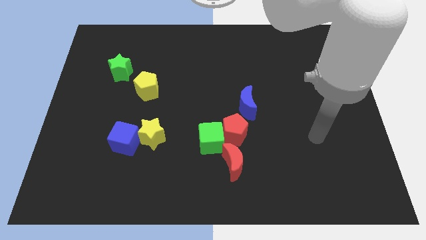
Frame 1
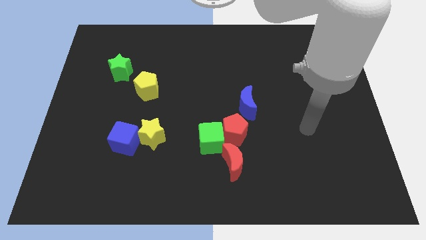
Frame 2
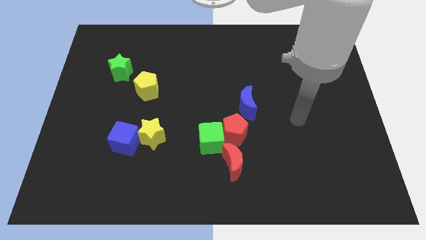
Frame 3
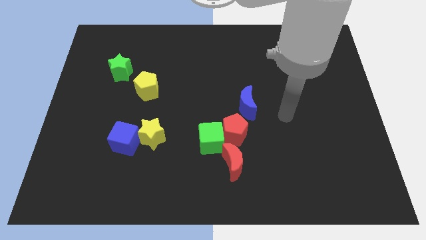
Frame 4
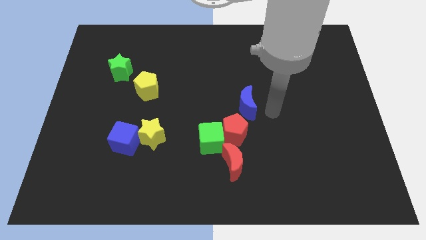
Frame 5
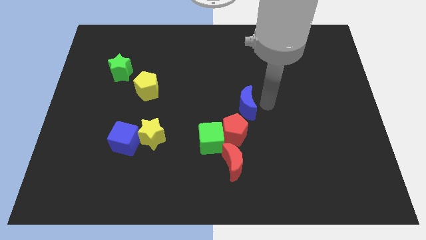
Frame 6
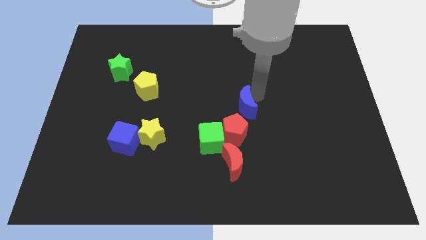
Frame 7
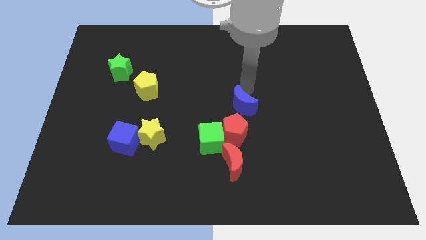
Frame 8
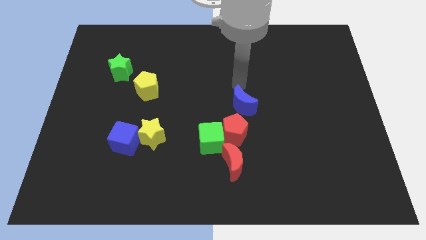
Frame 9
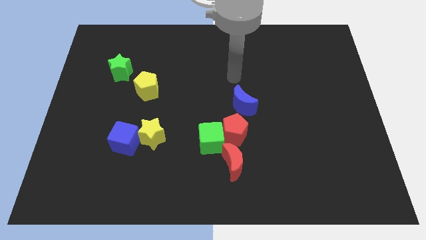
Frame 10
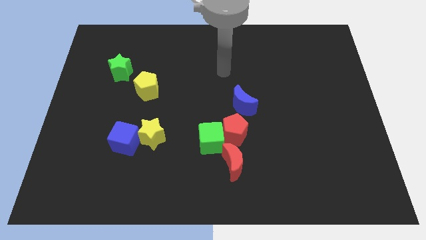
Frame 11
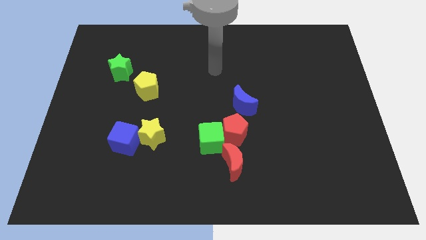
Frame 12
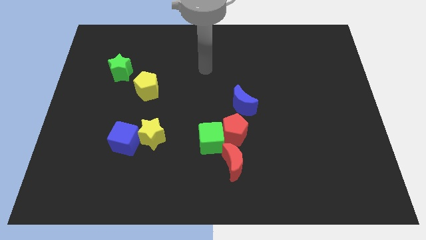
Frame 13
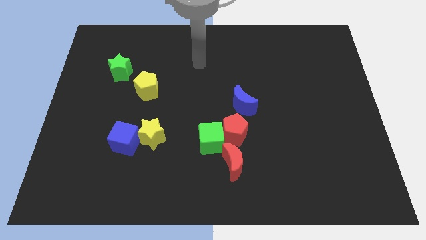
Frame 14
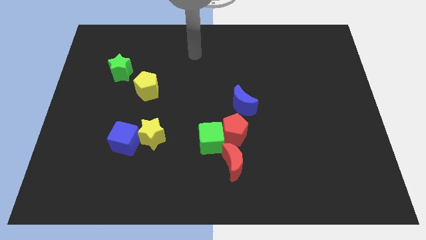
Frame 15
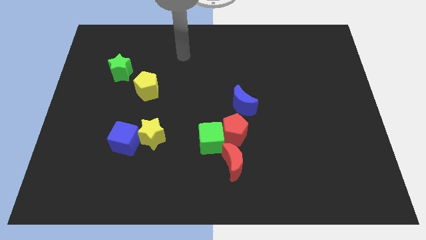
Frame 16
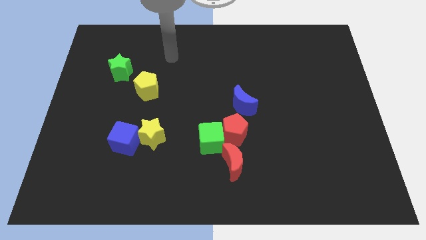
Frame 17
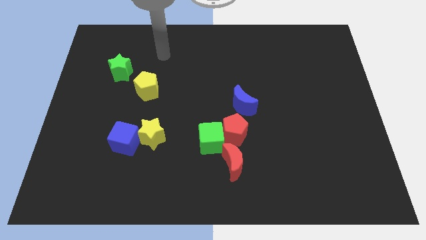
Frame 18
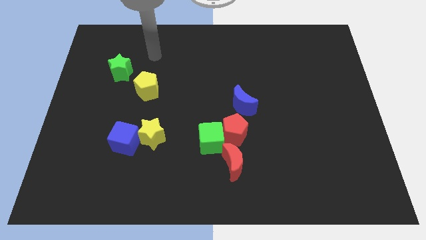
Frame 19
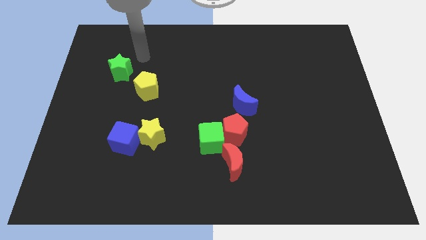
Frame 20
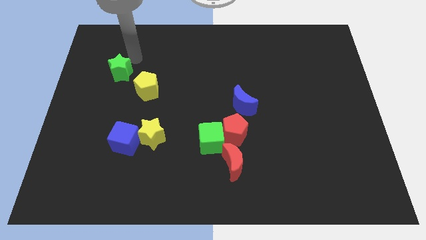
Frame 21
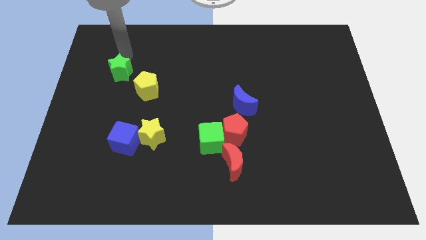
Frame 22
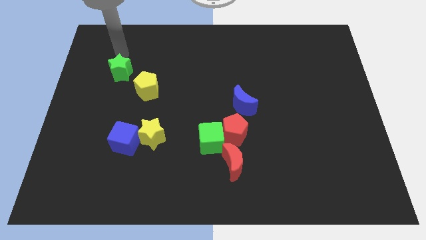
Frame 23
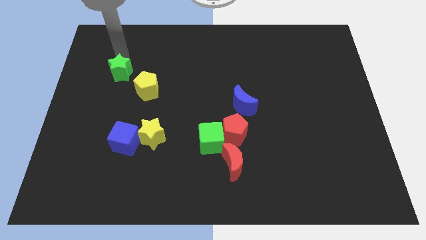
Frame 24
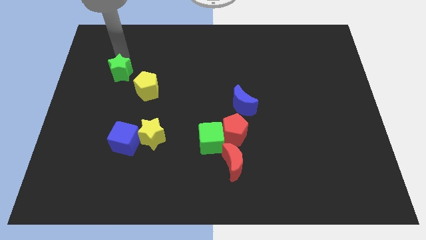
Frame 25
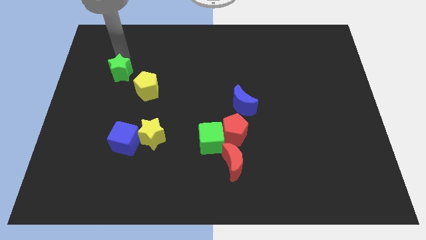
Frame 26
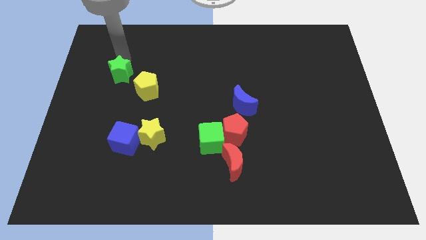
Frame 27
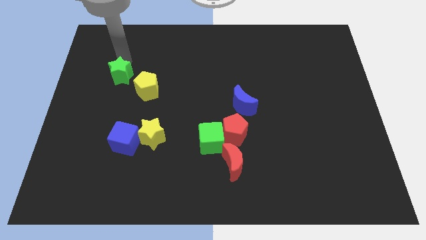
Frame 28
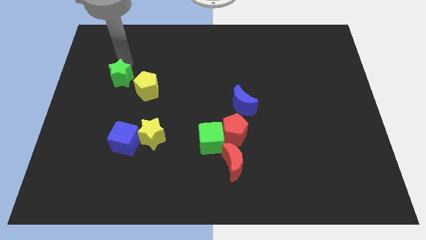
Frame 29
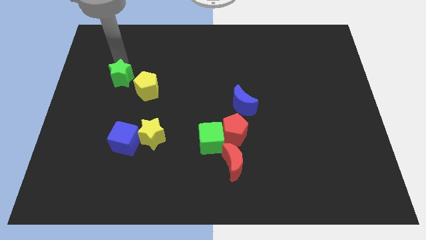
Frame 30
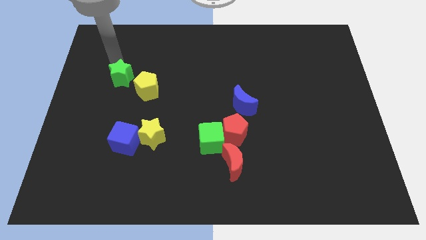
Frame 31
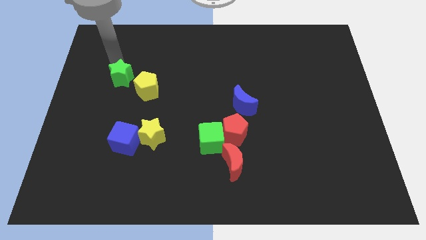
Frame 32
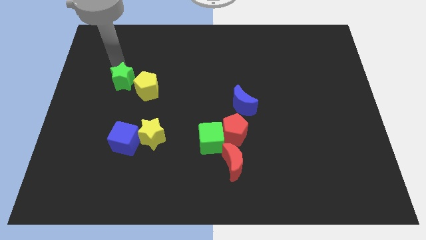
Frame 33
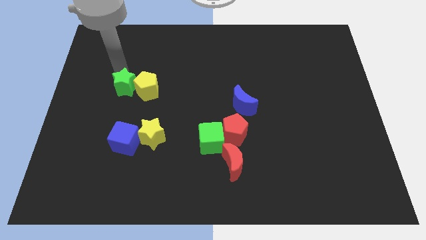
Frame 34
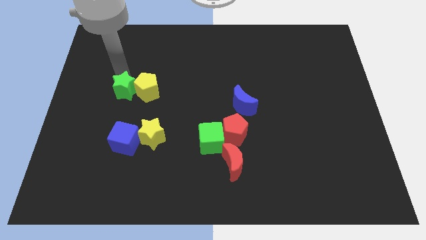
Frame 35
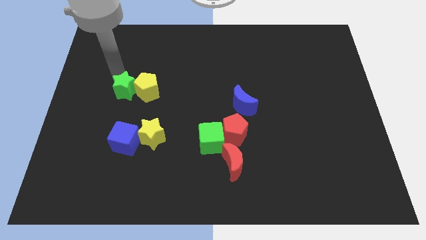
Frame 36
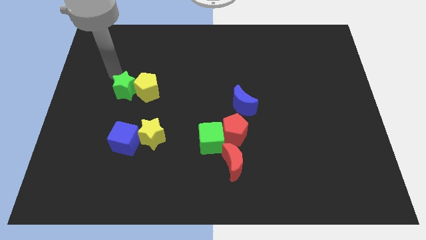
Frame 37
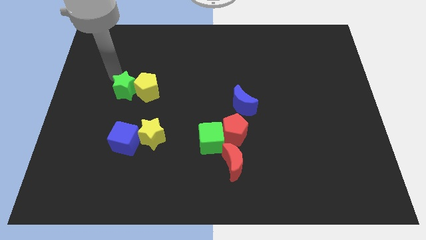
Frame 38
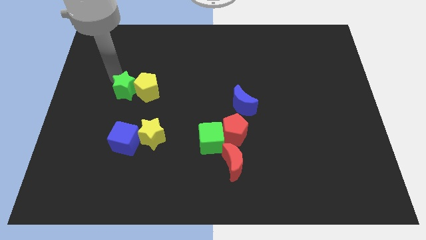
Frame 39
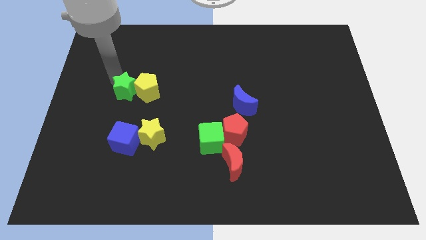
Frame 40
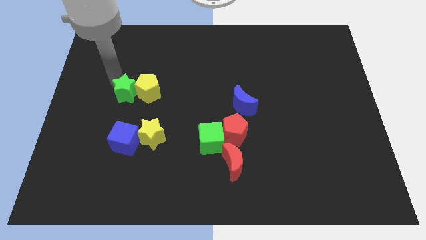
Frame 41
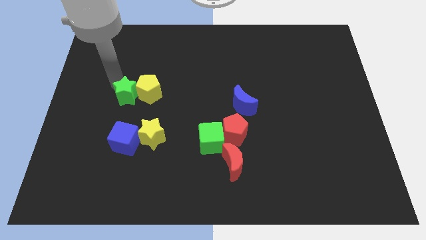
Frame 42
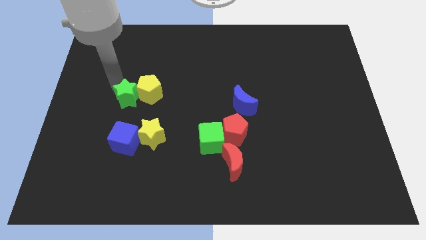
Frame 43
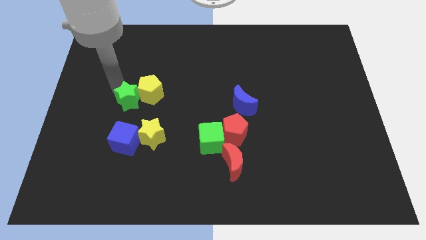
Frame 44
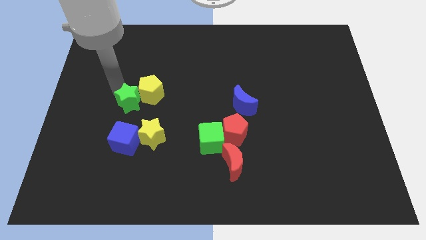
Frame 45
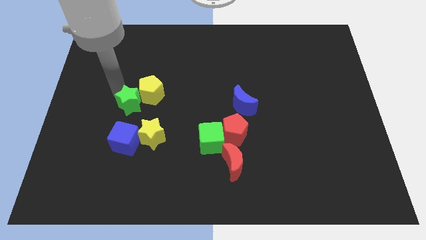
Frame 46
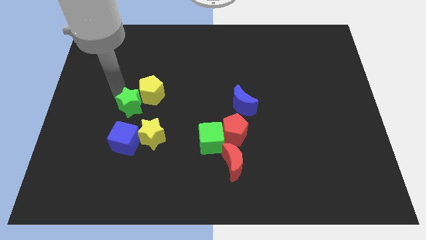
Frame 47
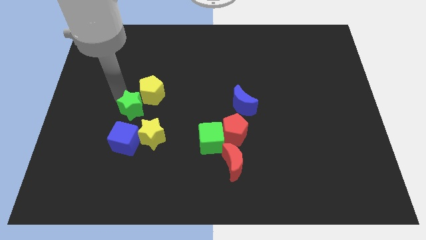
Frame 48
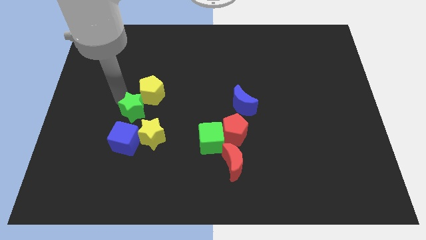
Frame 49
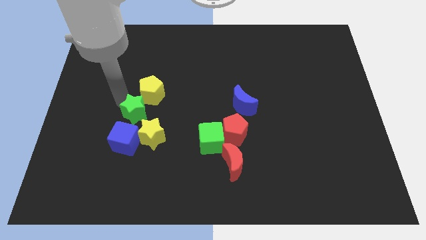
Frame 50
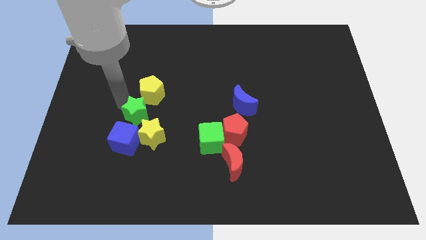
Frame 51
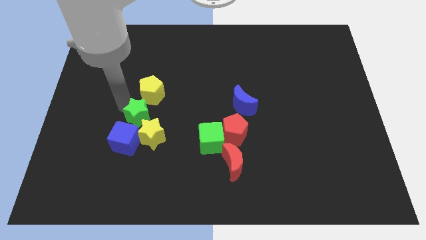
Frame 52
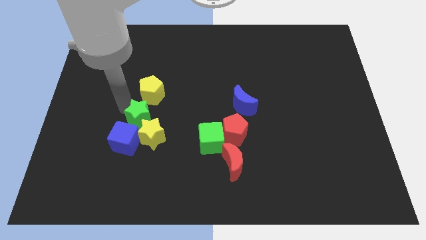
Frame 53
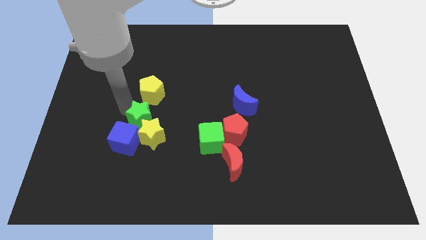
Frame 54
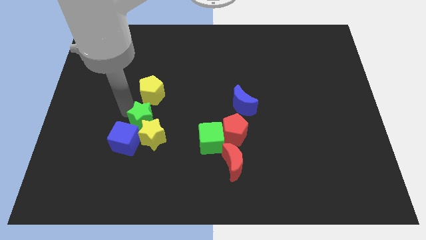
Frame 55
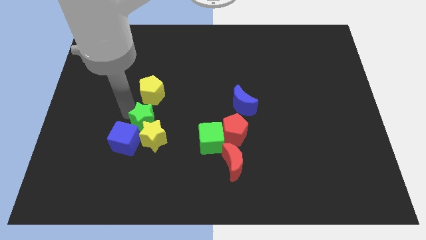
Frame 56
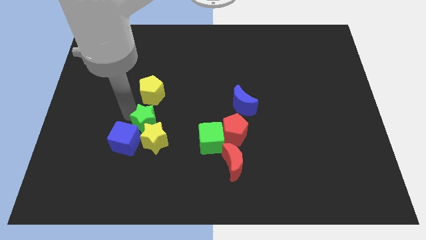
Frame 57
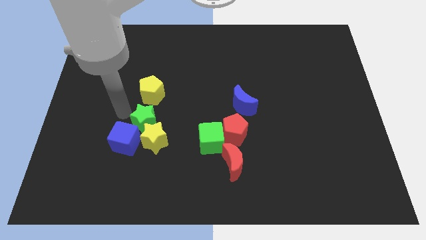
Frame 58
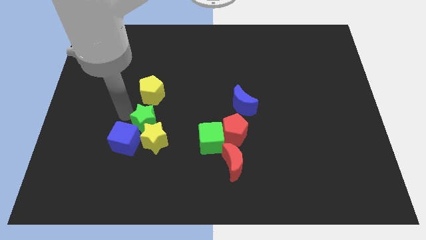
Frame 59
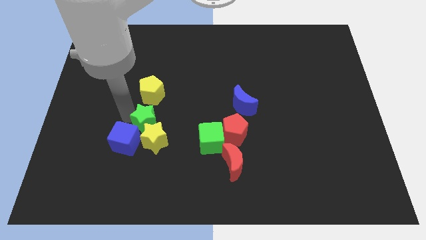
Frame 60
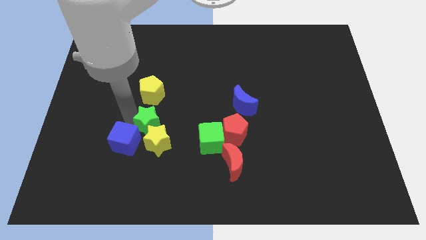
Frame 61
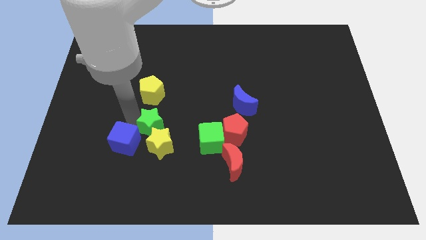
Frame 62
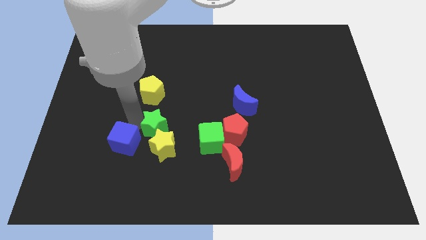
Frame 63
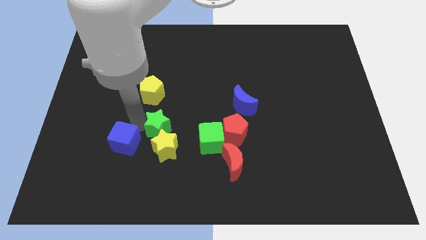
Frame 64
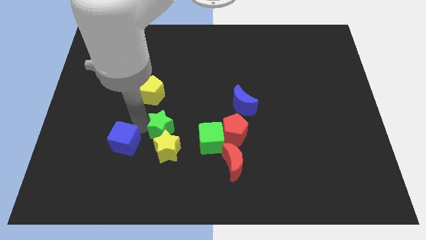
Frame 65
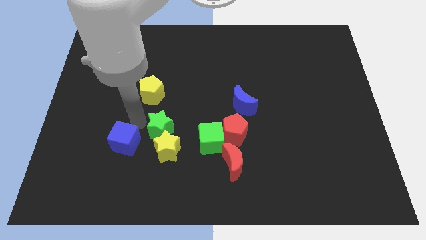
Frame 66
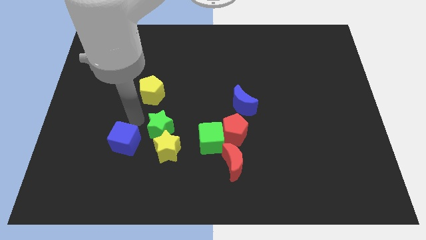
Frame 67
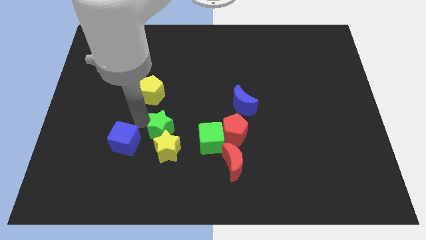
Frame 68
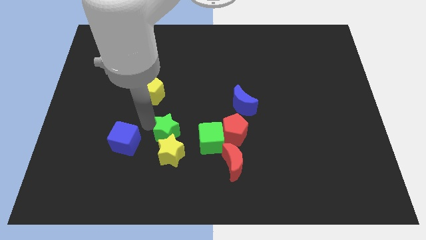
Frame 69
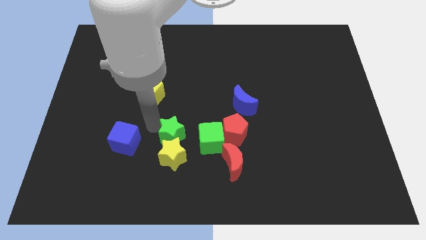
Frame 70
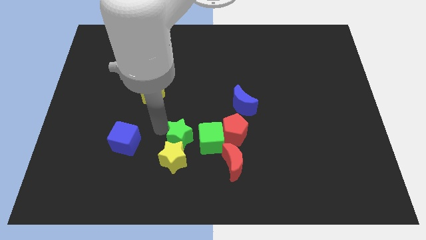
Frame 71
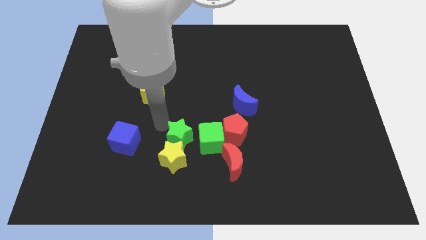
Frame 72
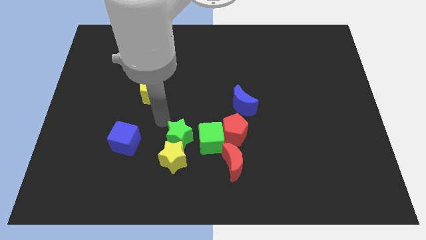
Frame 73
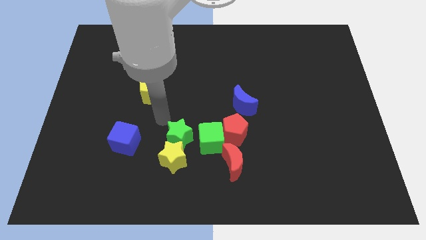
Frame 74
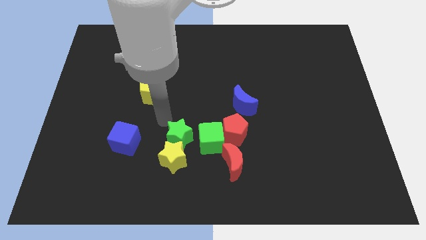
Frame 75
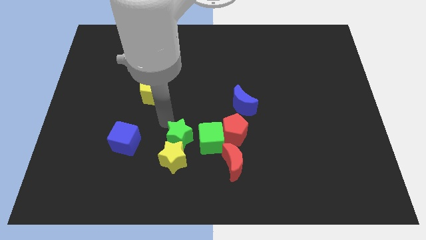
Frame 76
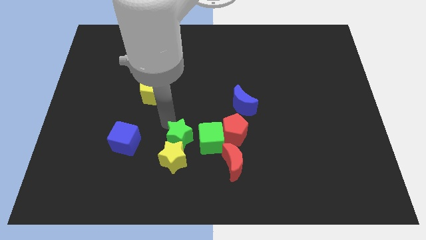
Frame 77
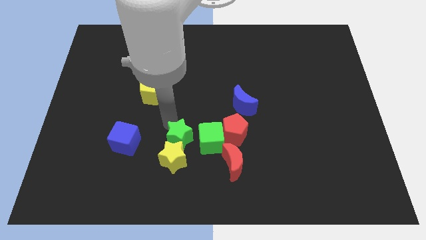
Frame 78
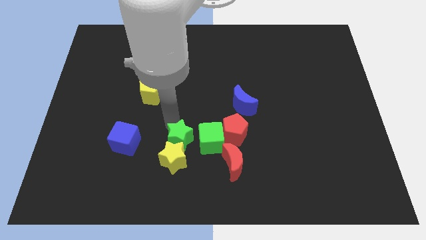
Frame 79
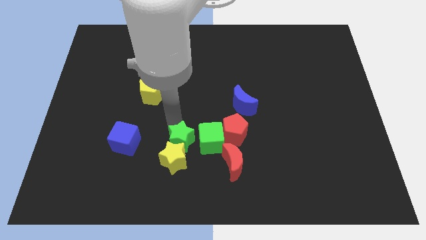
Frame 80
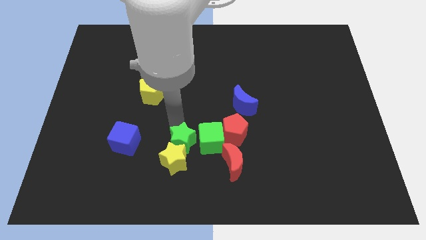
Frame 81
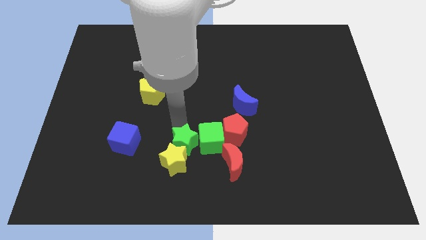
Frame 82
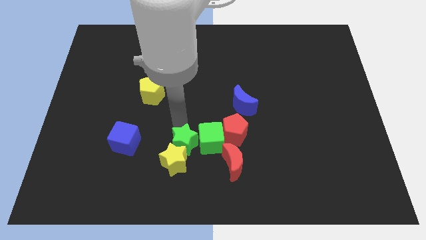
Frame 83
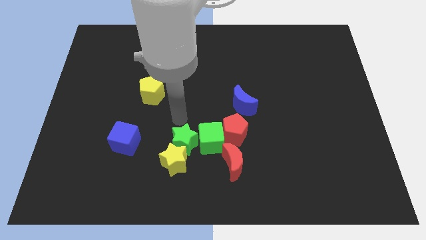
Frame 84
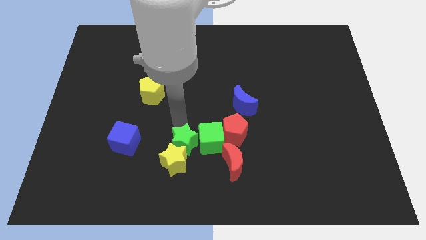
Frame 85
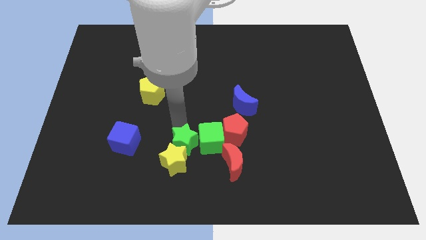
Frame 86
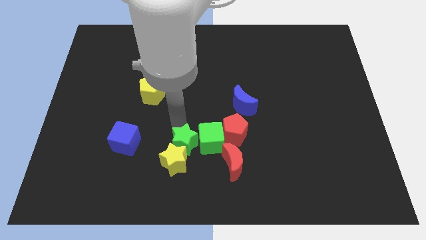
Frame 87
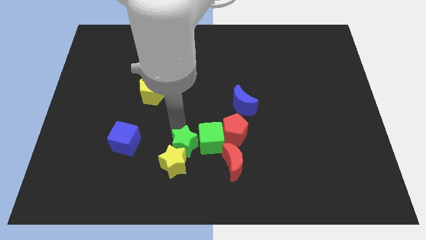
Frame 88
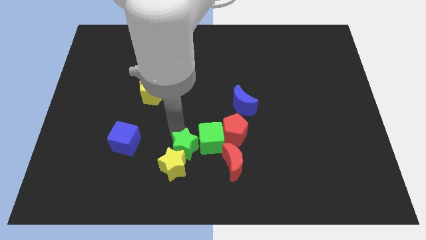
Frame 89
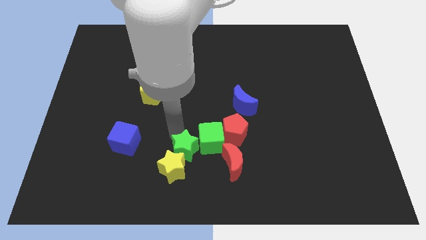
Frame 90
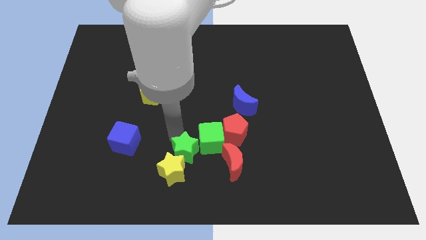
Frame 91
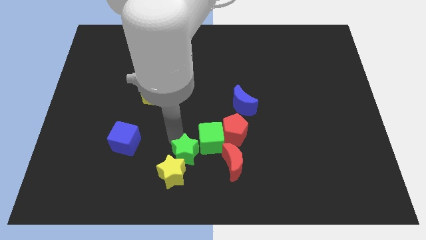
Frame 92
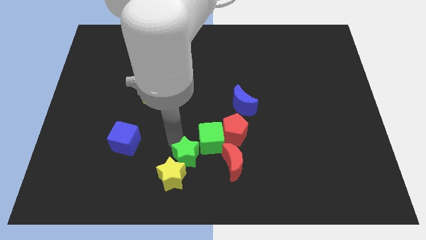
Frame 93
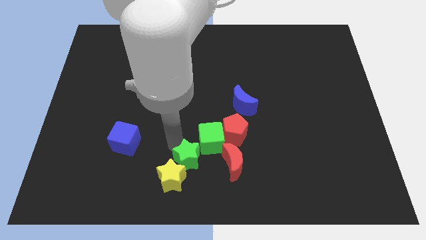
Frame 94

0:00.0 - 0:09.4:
slide the green star to the bottom side
